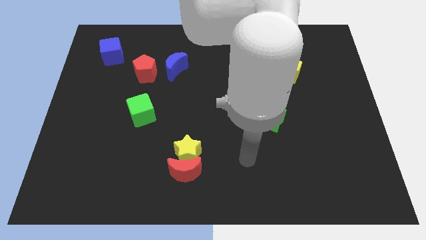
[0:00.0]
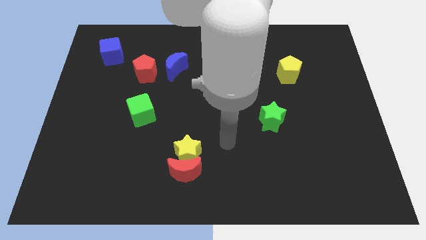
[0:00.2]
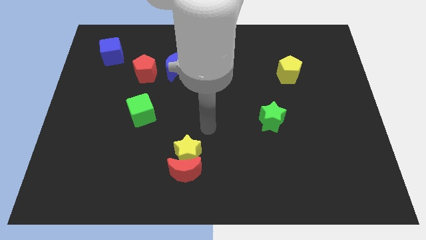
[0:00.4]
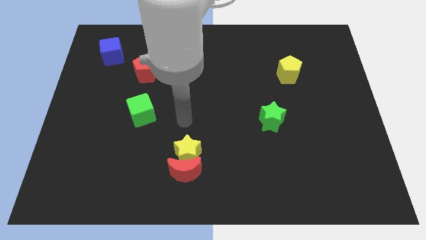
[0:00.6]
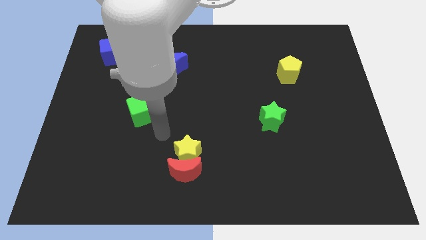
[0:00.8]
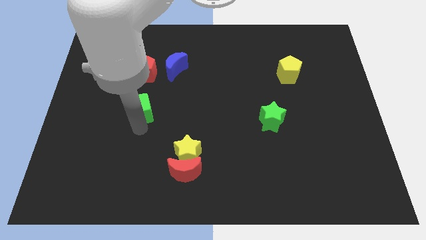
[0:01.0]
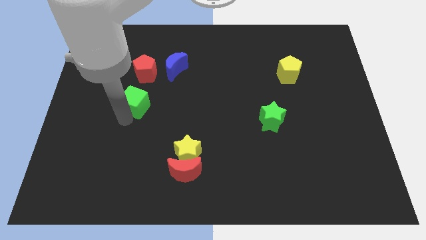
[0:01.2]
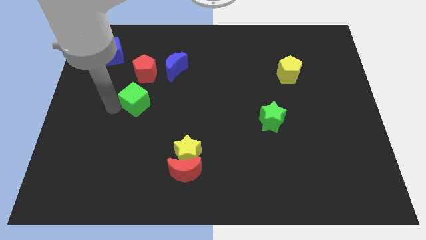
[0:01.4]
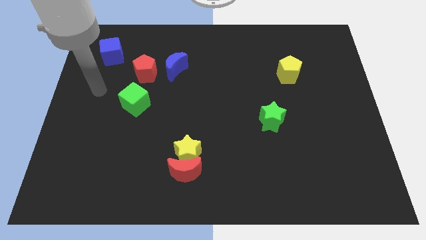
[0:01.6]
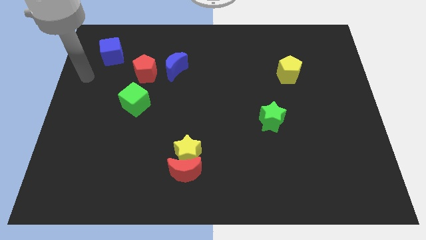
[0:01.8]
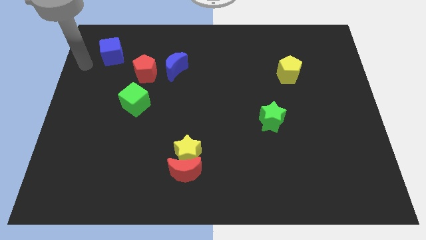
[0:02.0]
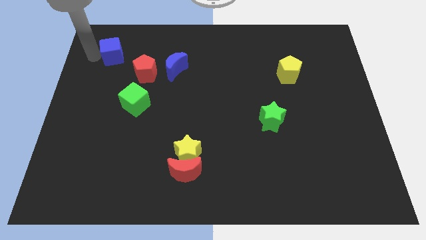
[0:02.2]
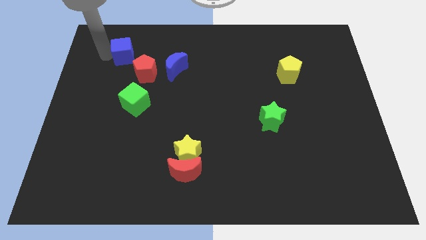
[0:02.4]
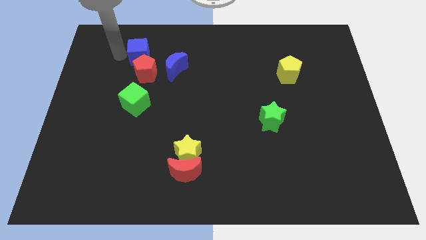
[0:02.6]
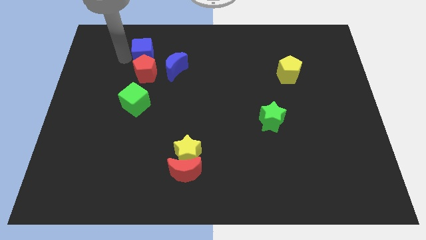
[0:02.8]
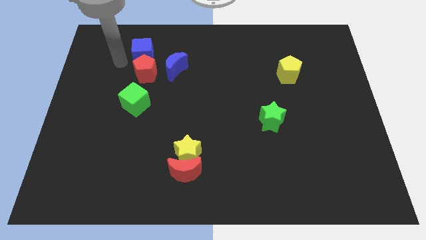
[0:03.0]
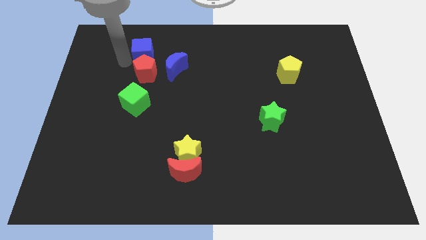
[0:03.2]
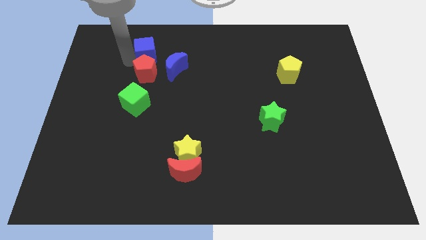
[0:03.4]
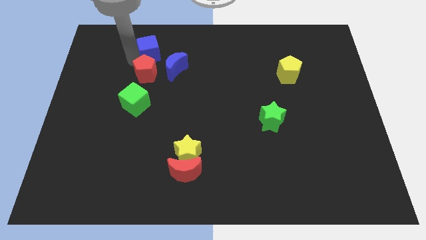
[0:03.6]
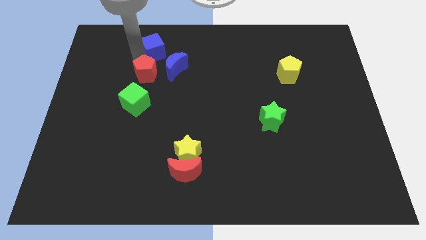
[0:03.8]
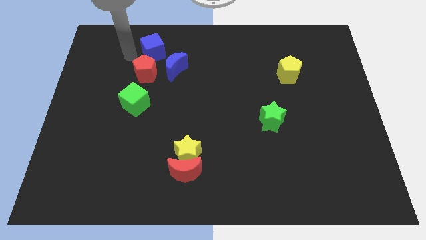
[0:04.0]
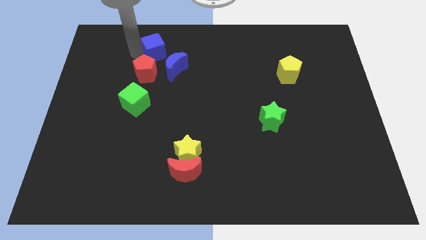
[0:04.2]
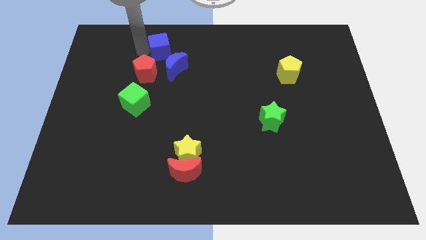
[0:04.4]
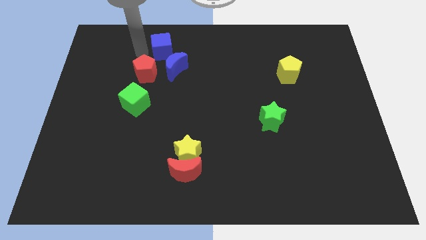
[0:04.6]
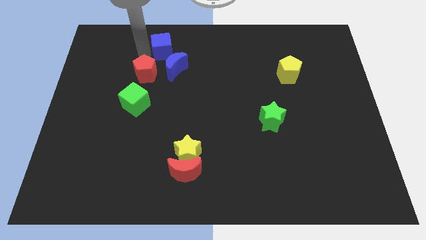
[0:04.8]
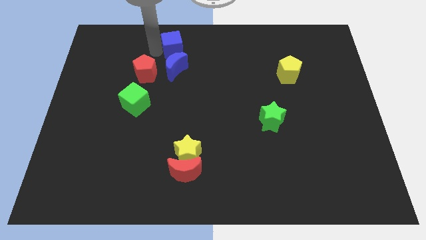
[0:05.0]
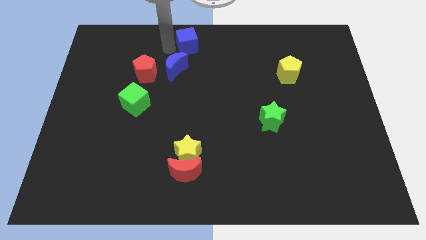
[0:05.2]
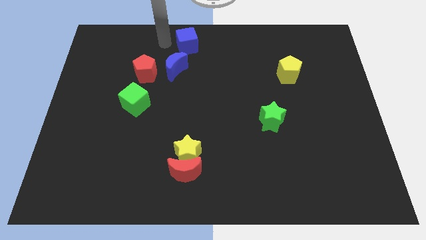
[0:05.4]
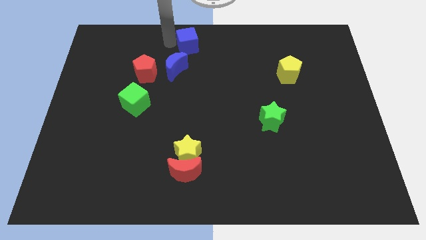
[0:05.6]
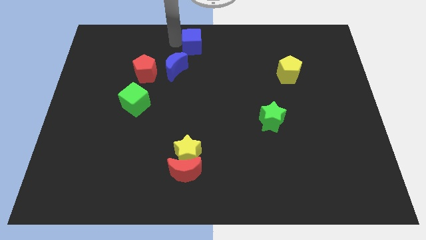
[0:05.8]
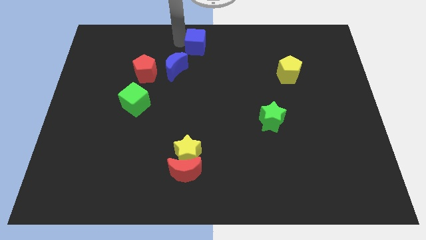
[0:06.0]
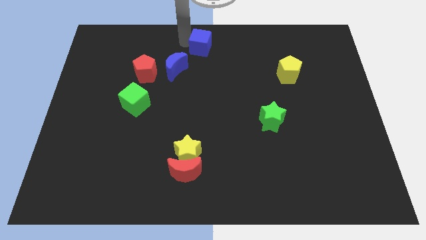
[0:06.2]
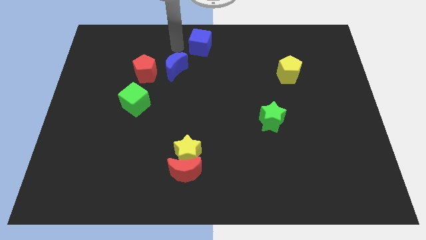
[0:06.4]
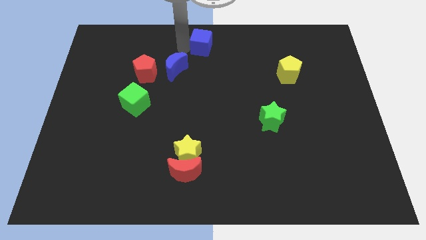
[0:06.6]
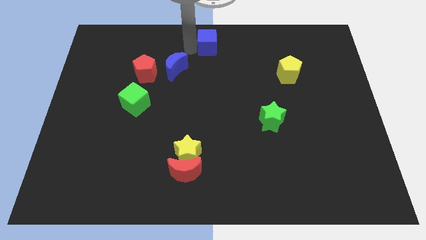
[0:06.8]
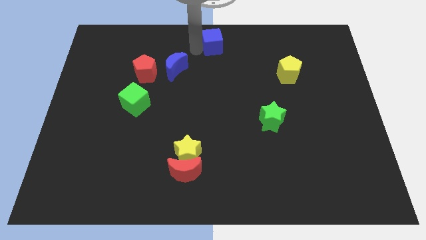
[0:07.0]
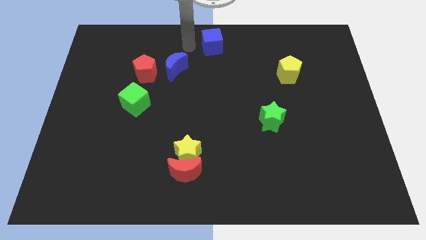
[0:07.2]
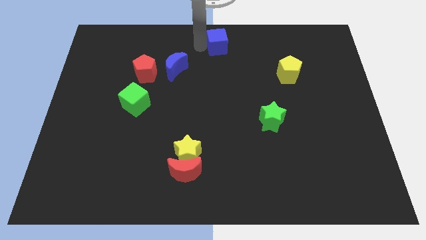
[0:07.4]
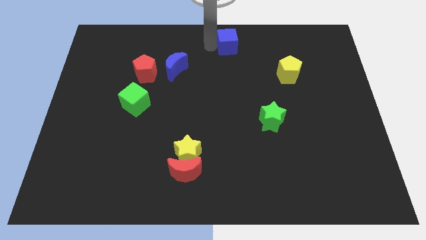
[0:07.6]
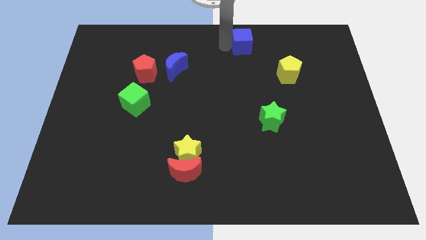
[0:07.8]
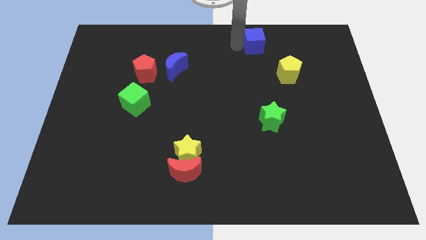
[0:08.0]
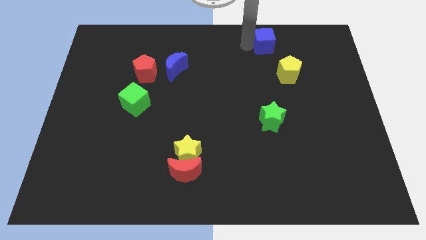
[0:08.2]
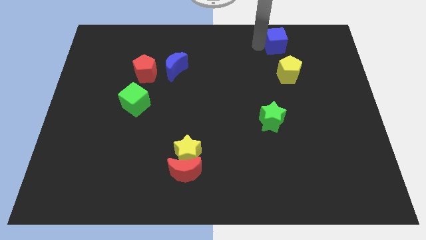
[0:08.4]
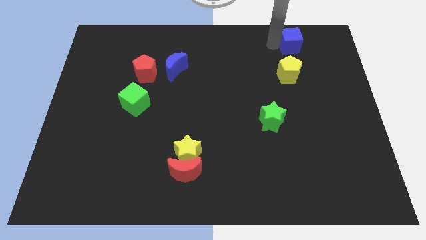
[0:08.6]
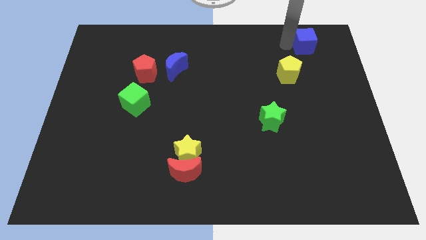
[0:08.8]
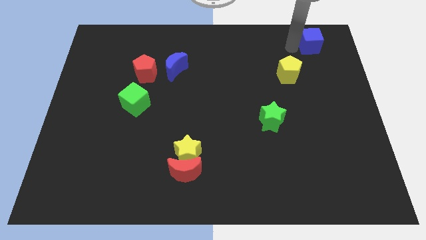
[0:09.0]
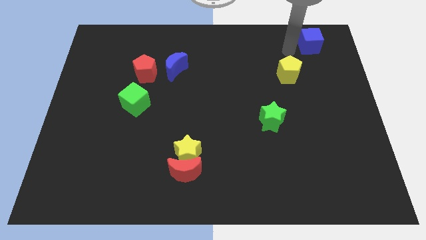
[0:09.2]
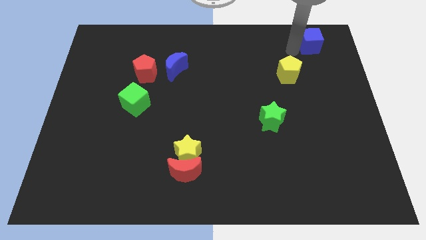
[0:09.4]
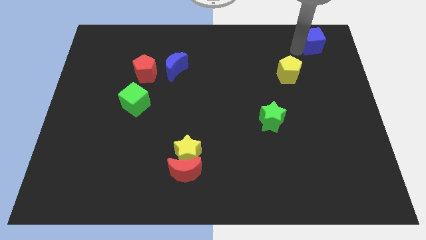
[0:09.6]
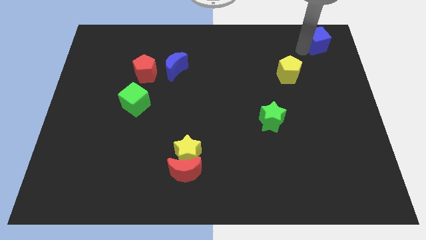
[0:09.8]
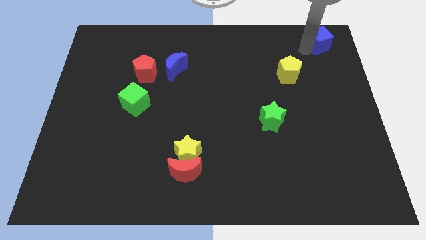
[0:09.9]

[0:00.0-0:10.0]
move the blue cube to the top right of the board

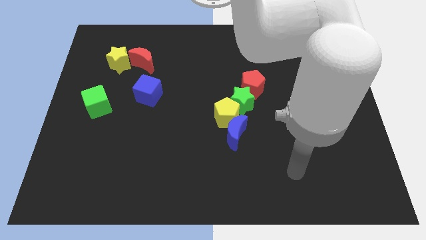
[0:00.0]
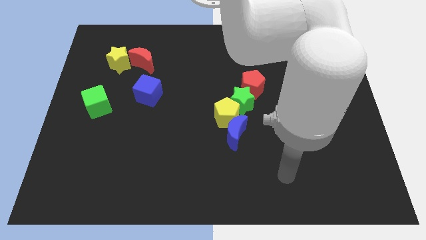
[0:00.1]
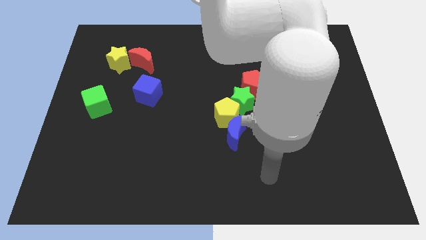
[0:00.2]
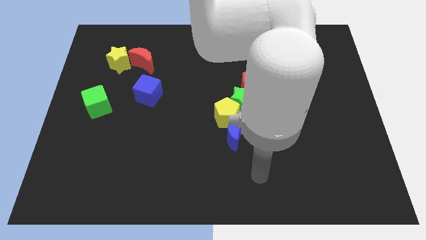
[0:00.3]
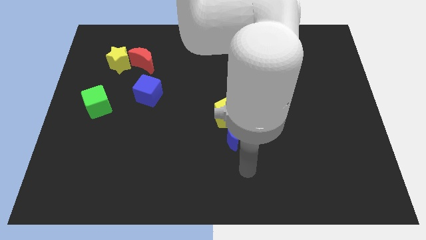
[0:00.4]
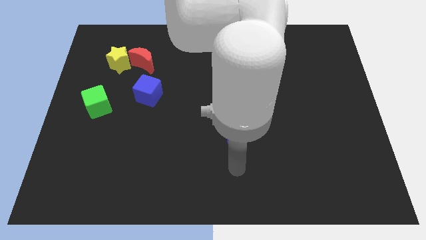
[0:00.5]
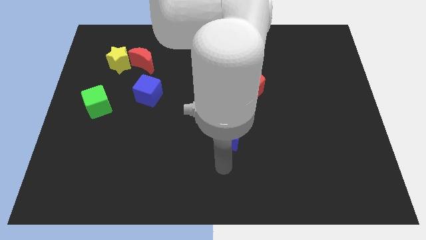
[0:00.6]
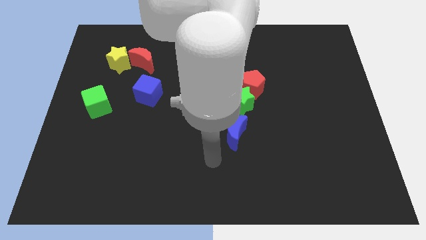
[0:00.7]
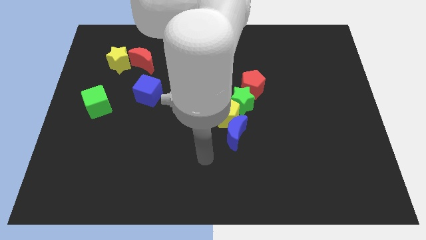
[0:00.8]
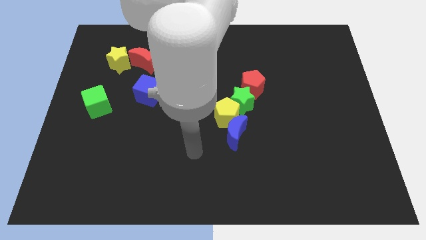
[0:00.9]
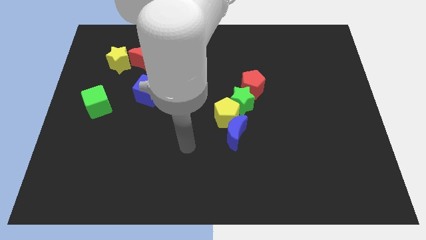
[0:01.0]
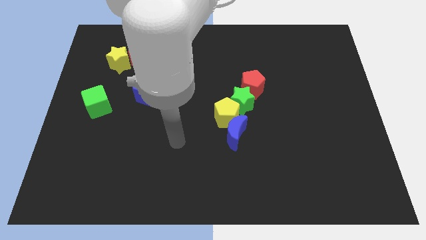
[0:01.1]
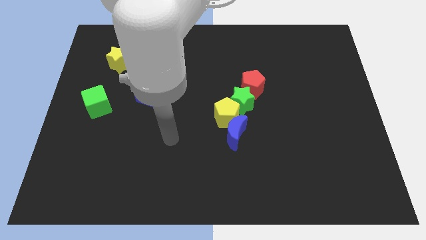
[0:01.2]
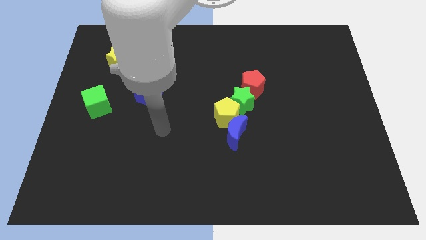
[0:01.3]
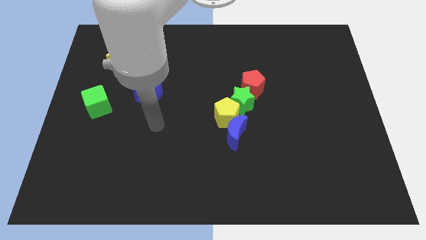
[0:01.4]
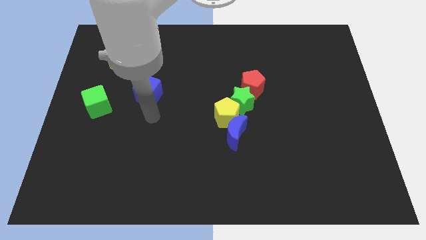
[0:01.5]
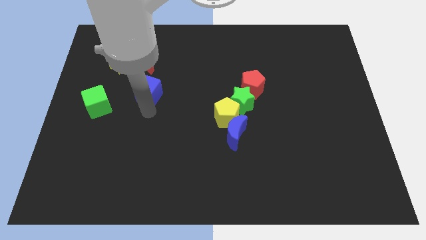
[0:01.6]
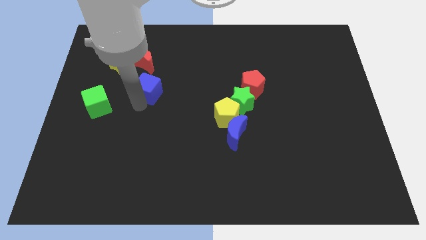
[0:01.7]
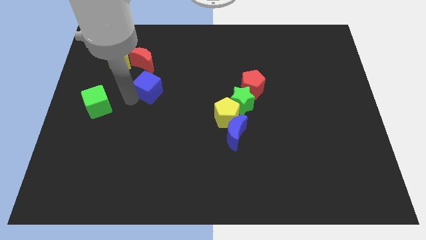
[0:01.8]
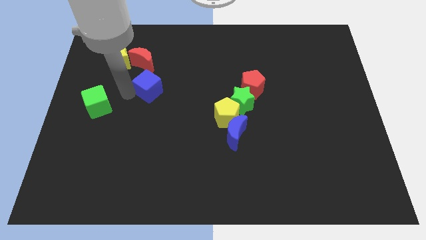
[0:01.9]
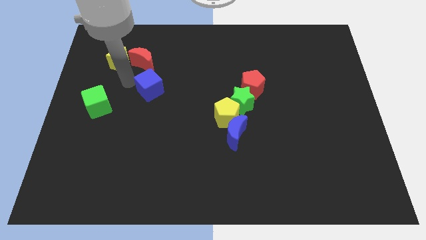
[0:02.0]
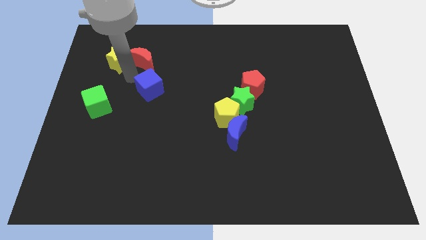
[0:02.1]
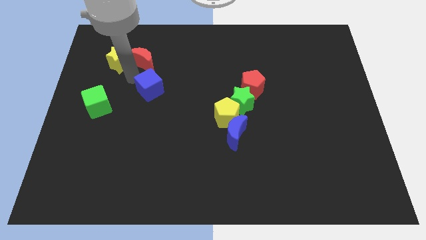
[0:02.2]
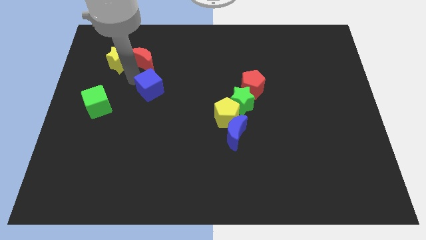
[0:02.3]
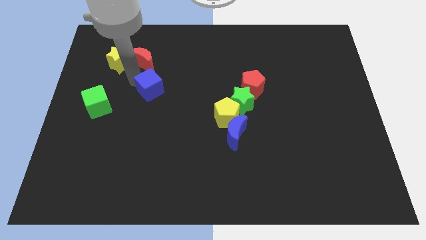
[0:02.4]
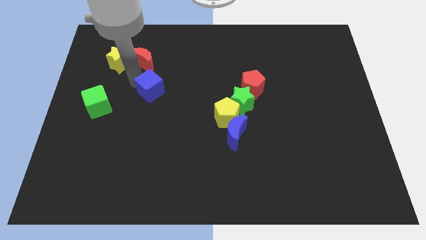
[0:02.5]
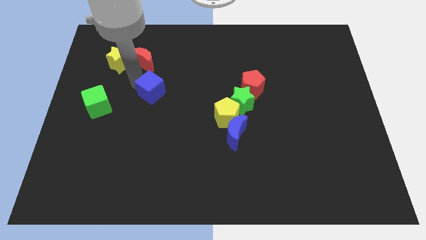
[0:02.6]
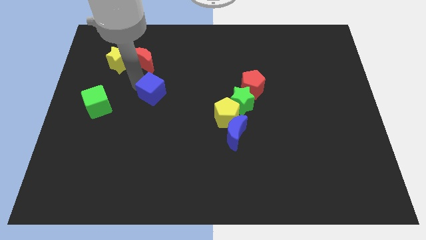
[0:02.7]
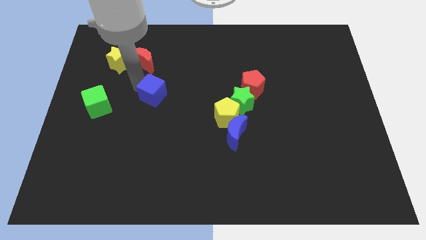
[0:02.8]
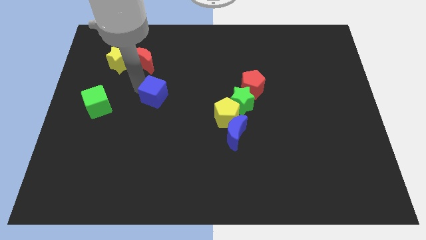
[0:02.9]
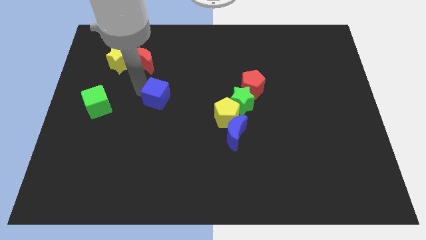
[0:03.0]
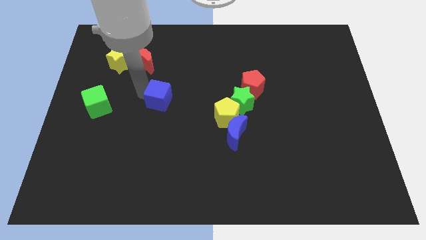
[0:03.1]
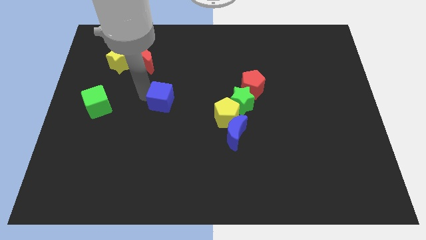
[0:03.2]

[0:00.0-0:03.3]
slide the blue cube to the center
